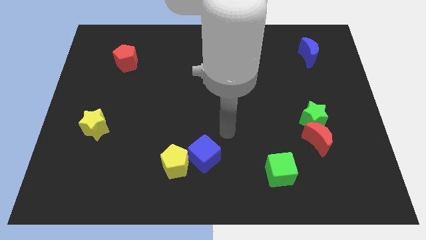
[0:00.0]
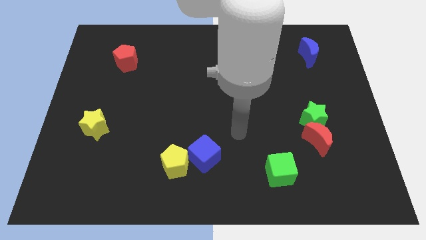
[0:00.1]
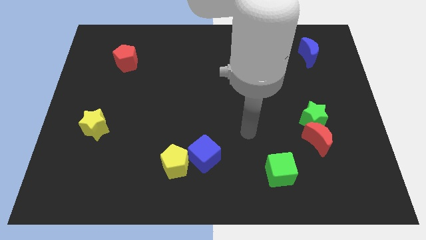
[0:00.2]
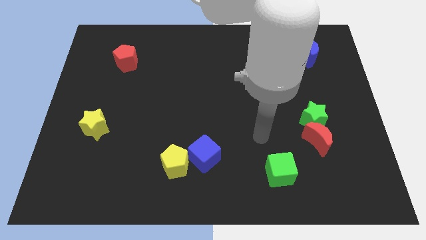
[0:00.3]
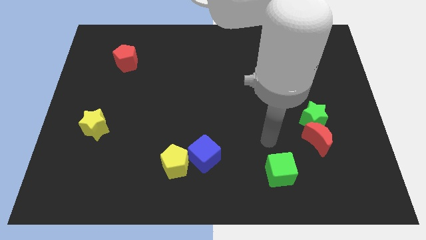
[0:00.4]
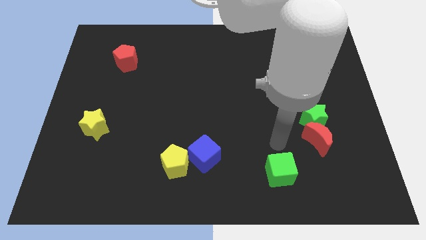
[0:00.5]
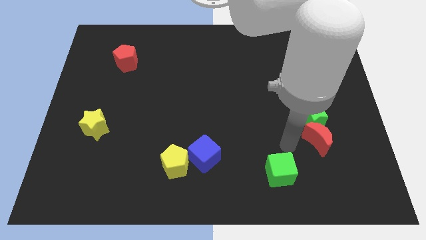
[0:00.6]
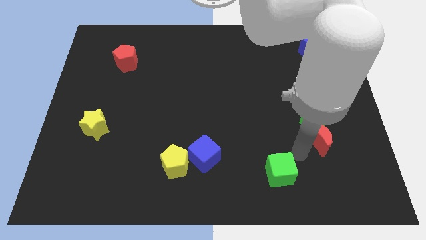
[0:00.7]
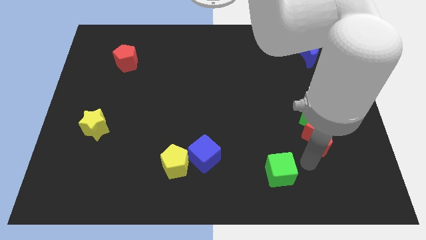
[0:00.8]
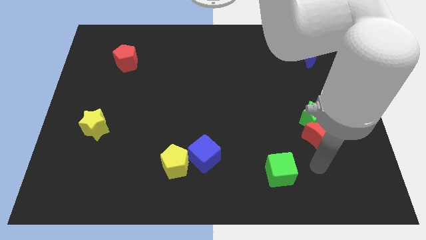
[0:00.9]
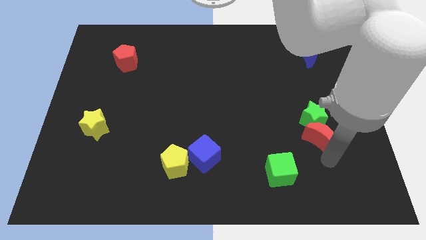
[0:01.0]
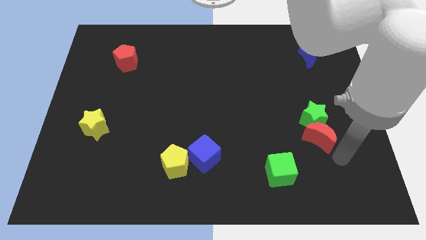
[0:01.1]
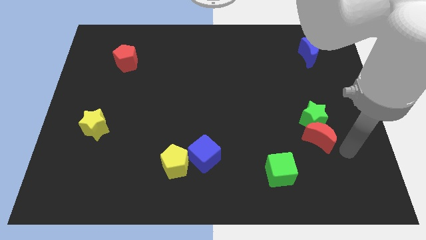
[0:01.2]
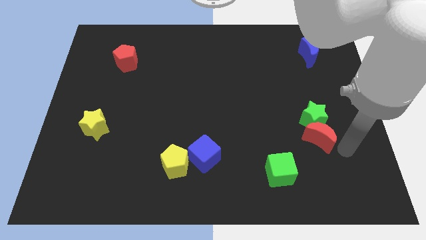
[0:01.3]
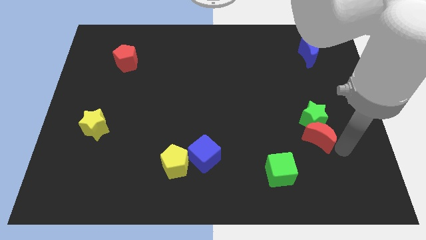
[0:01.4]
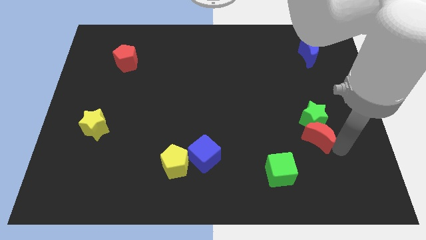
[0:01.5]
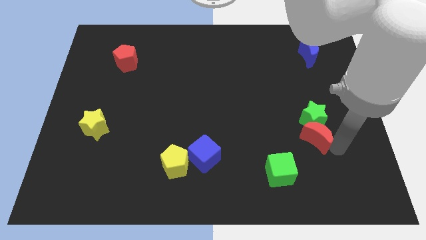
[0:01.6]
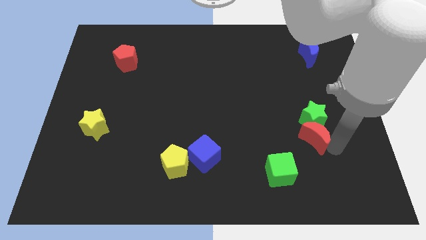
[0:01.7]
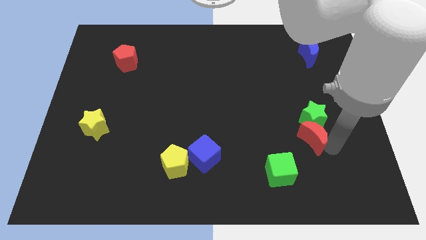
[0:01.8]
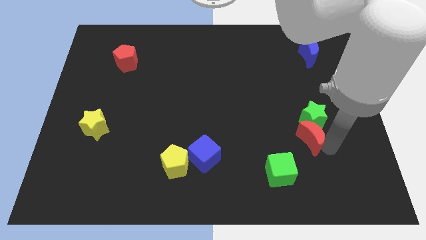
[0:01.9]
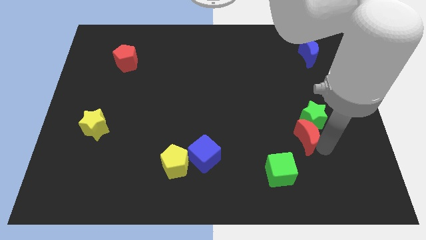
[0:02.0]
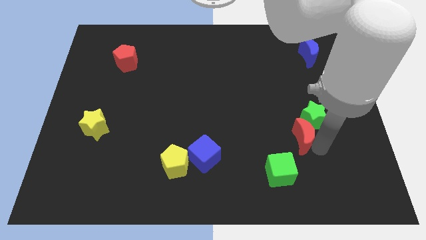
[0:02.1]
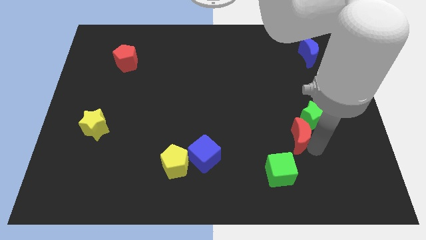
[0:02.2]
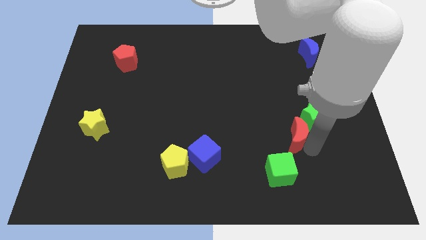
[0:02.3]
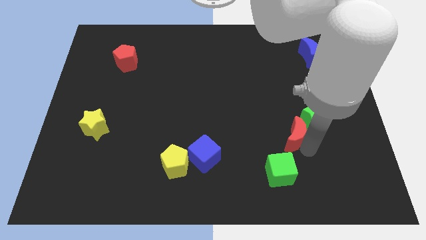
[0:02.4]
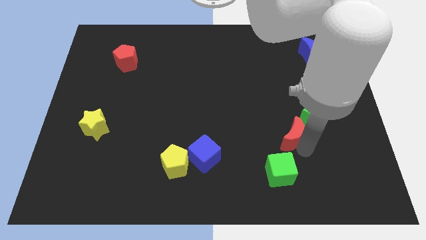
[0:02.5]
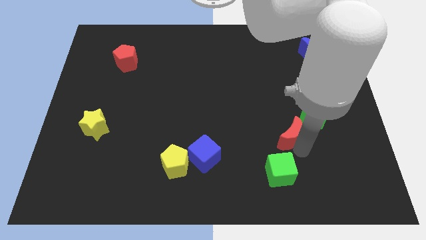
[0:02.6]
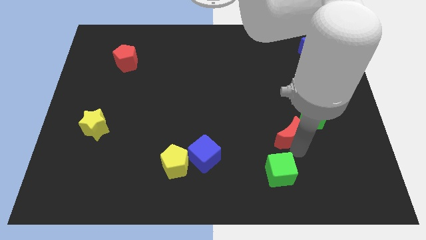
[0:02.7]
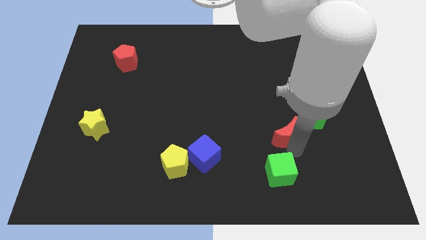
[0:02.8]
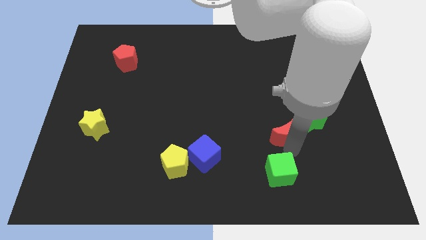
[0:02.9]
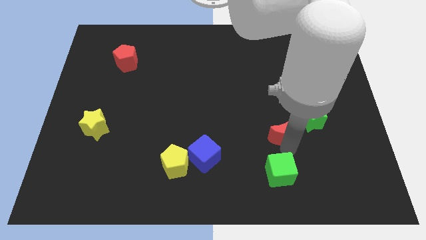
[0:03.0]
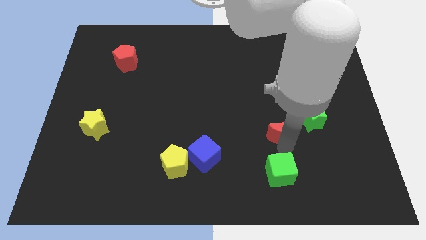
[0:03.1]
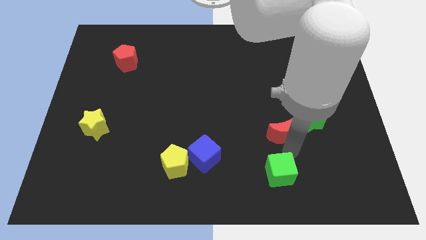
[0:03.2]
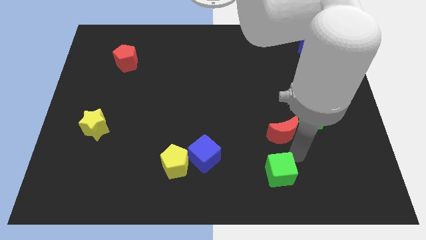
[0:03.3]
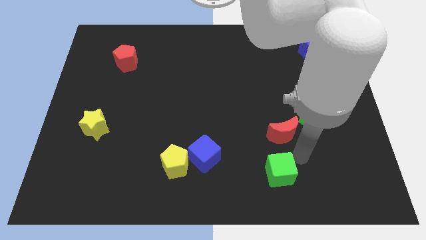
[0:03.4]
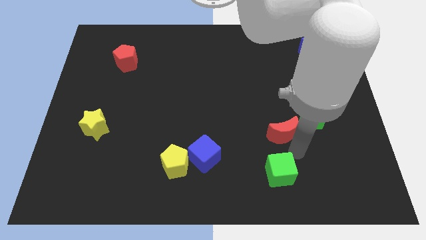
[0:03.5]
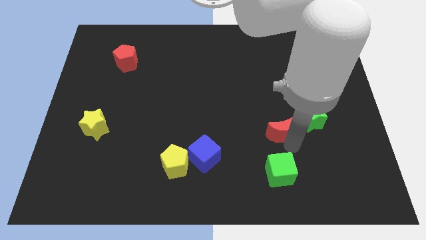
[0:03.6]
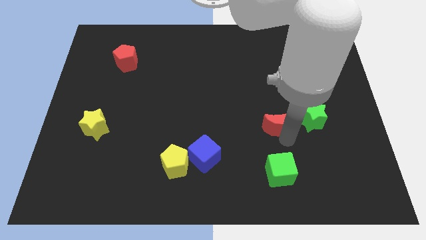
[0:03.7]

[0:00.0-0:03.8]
slightly move the red moon up and left

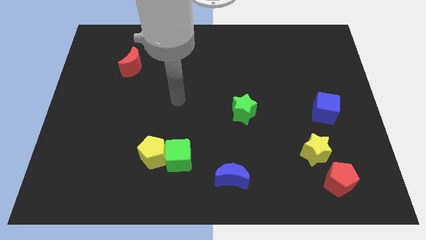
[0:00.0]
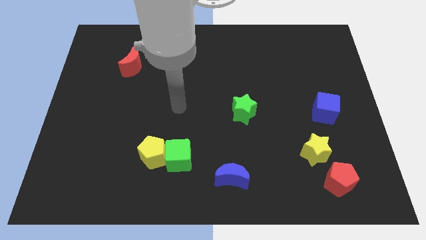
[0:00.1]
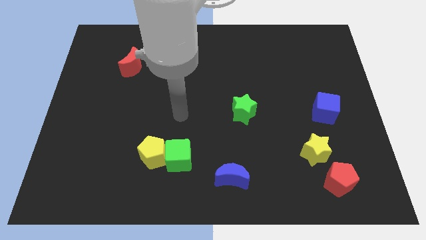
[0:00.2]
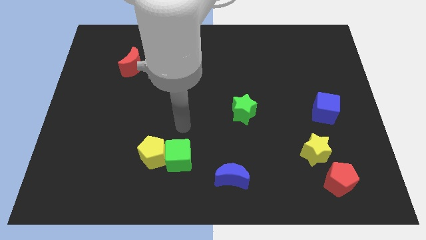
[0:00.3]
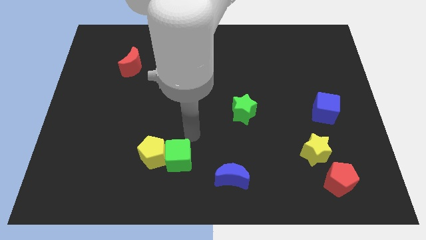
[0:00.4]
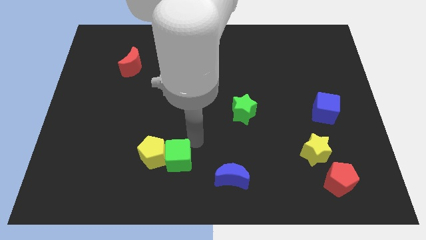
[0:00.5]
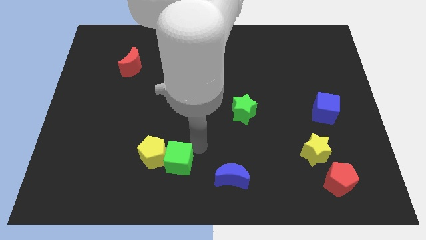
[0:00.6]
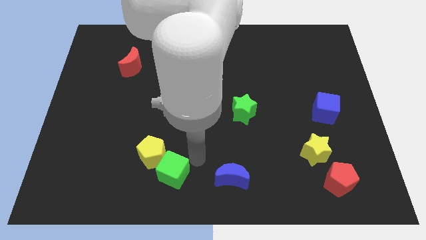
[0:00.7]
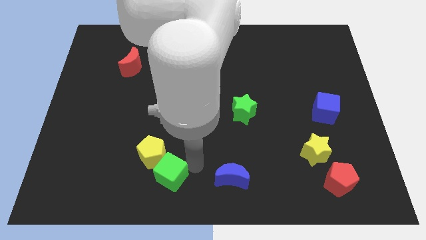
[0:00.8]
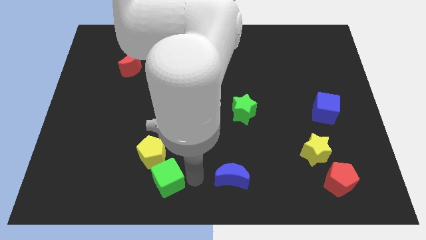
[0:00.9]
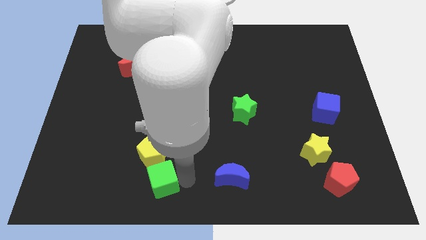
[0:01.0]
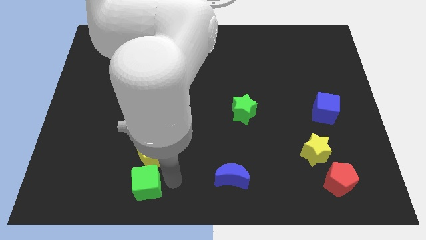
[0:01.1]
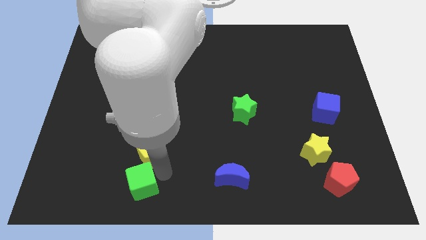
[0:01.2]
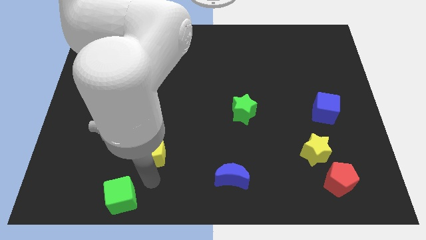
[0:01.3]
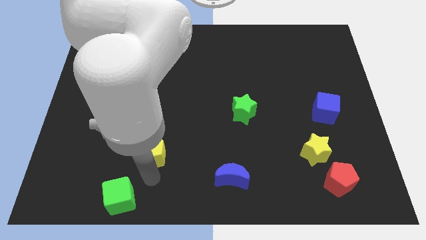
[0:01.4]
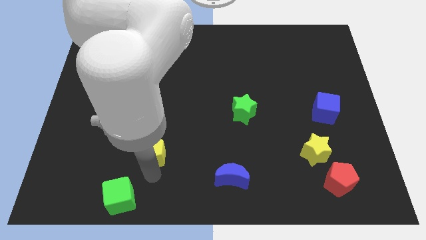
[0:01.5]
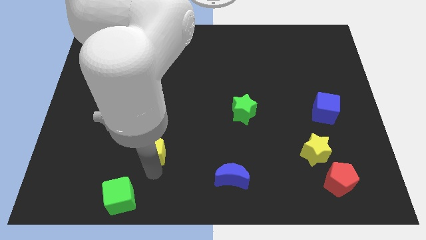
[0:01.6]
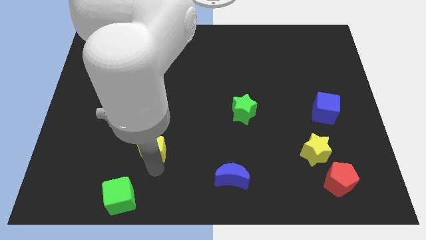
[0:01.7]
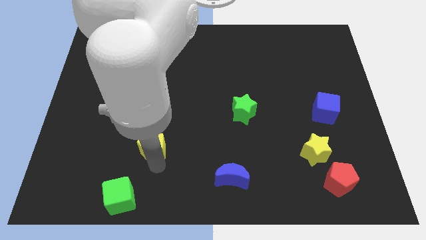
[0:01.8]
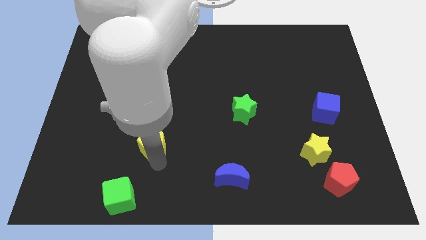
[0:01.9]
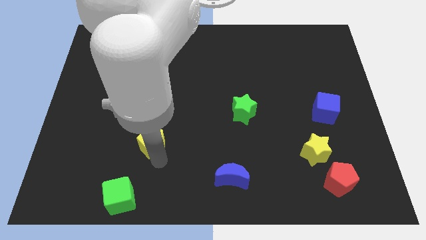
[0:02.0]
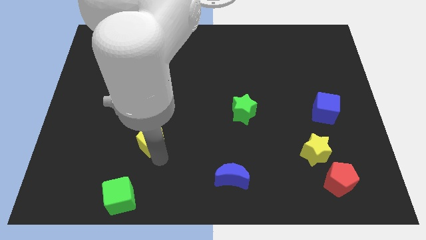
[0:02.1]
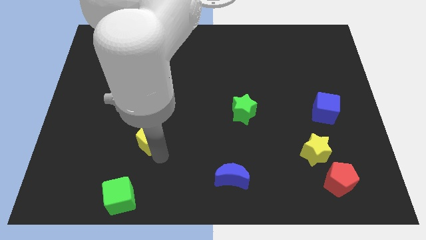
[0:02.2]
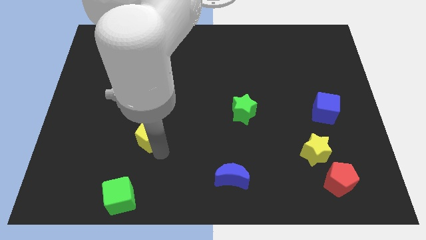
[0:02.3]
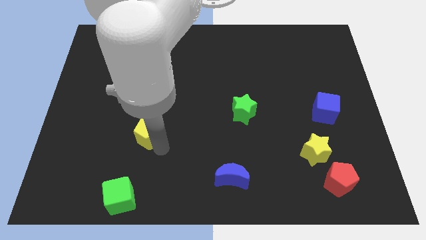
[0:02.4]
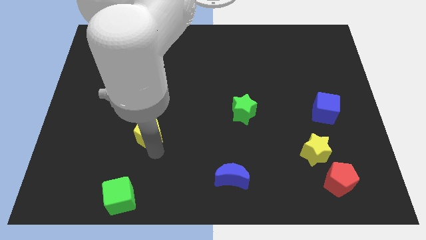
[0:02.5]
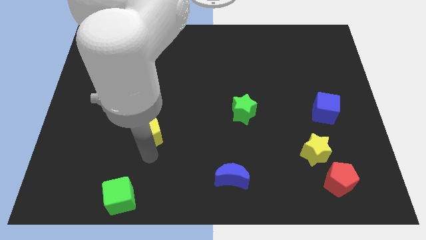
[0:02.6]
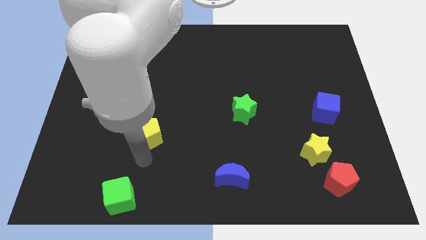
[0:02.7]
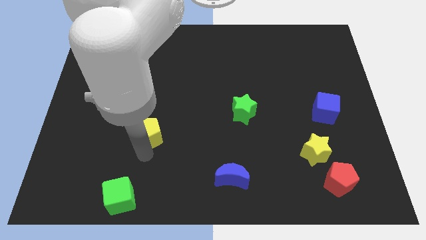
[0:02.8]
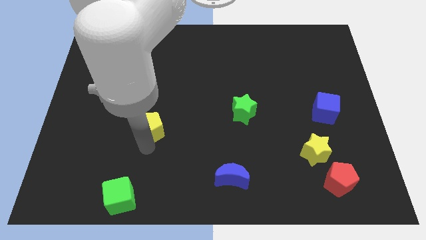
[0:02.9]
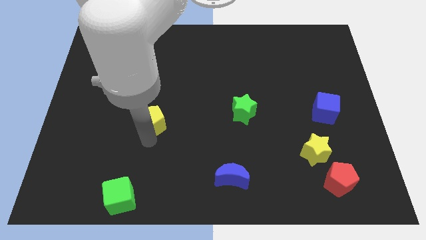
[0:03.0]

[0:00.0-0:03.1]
slide the yellow pentagon slightly upwards

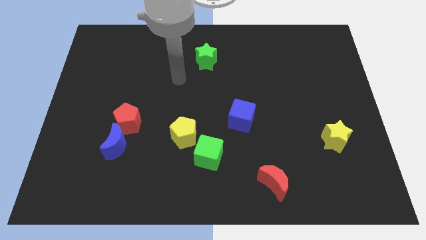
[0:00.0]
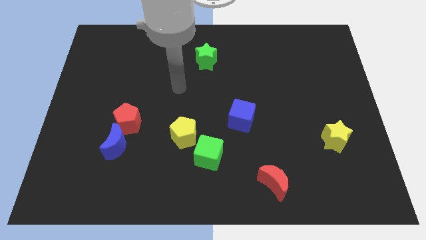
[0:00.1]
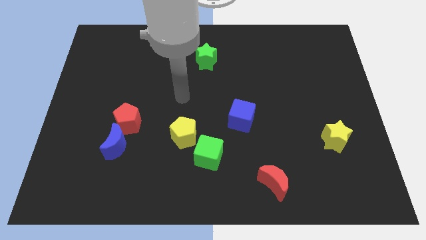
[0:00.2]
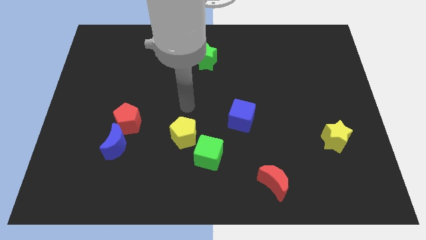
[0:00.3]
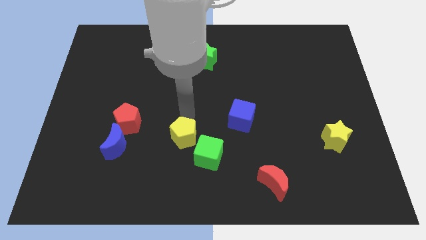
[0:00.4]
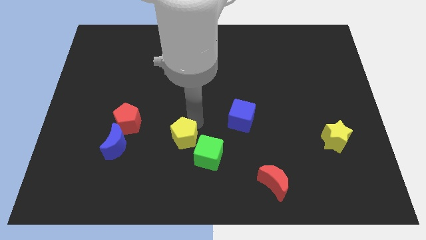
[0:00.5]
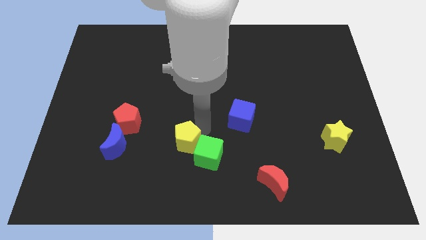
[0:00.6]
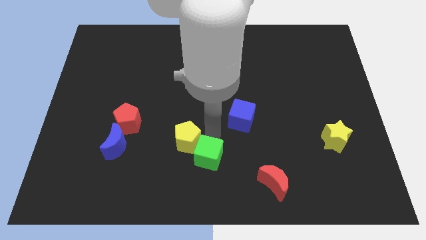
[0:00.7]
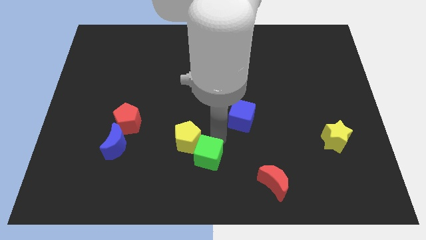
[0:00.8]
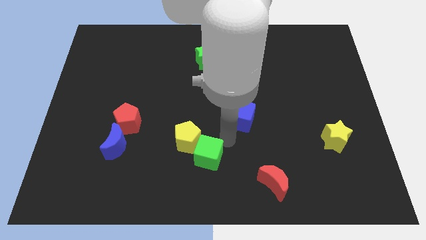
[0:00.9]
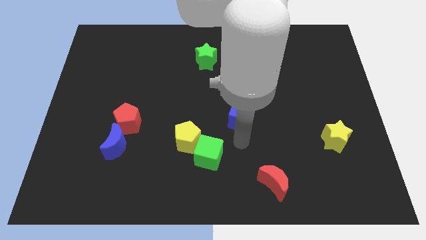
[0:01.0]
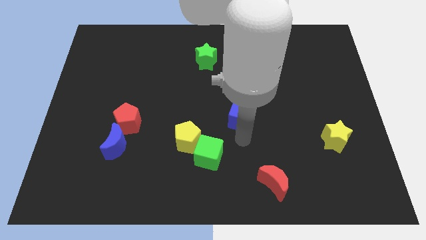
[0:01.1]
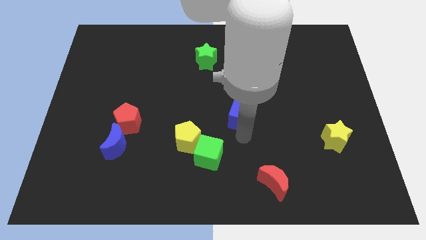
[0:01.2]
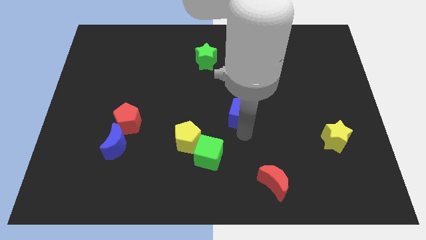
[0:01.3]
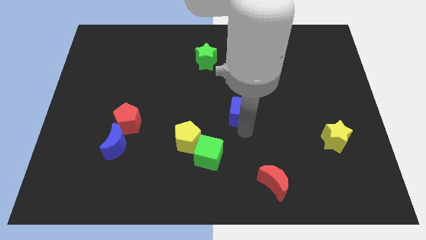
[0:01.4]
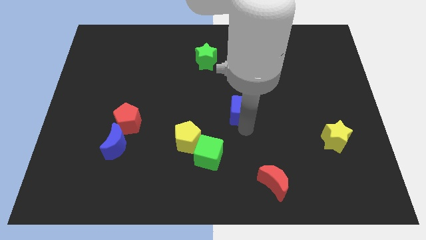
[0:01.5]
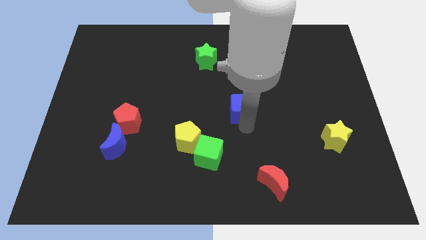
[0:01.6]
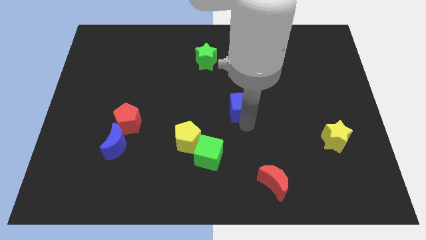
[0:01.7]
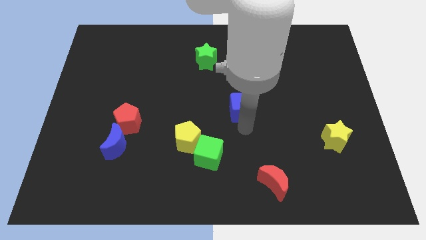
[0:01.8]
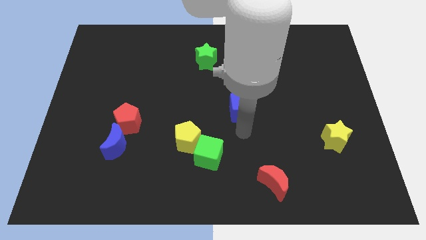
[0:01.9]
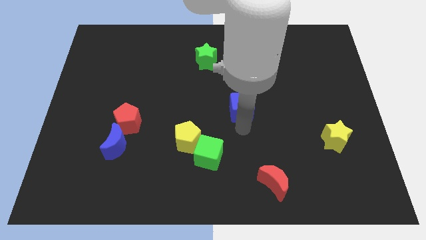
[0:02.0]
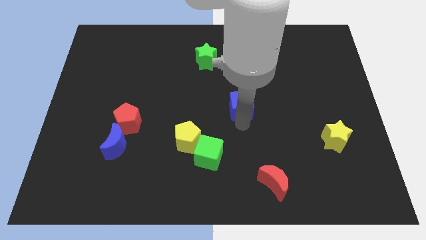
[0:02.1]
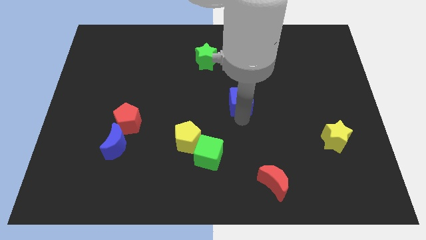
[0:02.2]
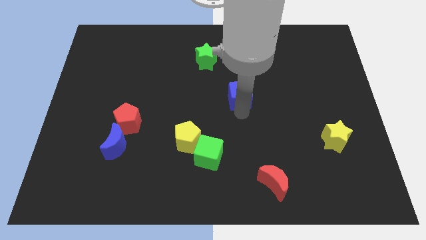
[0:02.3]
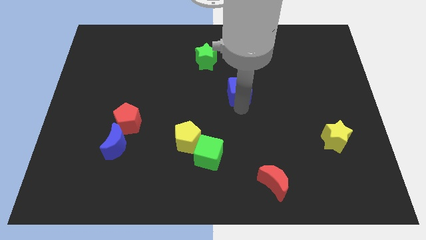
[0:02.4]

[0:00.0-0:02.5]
slide the blue cube upwards slightly
